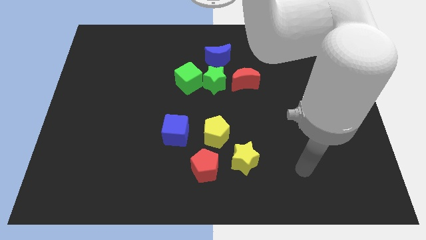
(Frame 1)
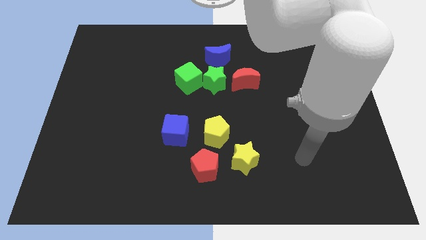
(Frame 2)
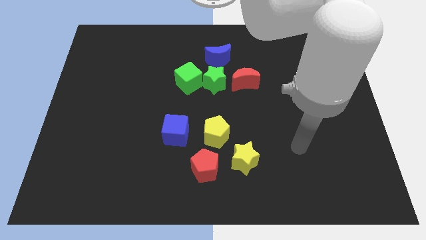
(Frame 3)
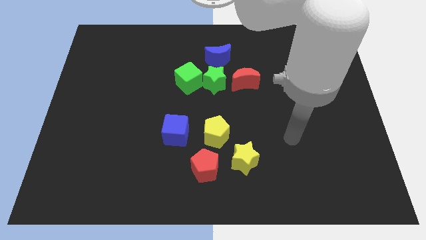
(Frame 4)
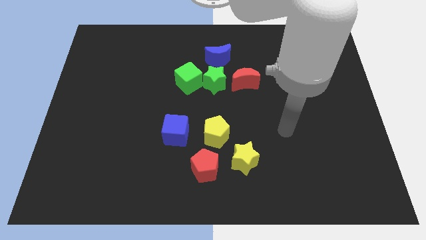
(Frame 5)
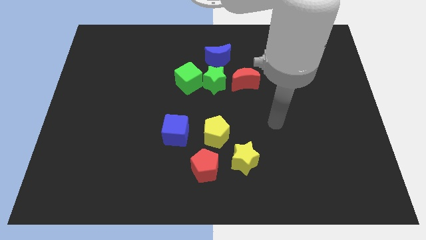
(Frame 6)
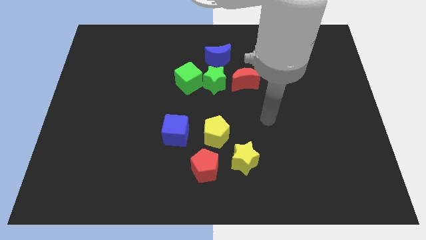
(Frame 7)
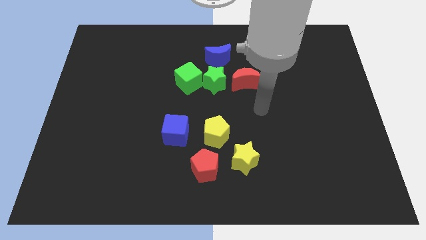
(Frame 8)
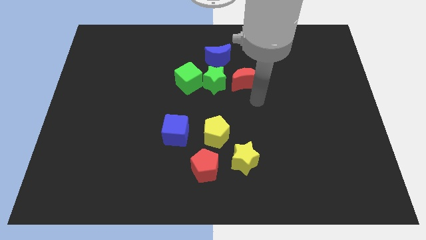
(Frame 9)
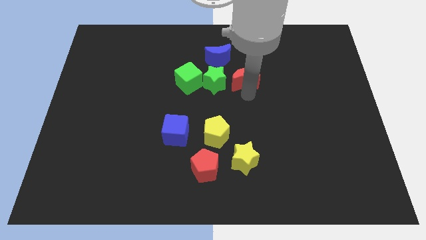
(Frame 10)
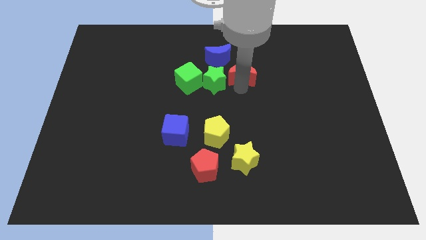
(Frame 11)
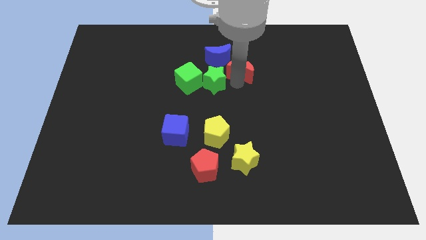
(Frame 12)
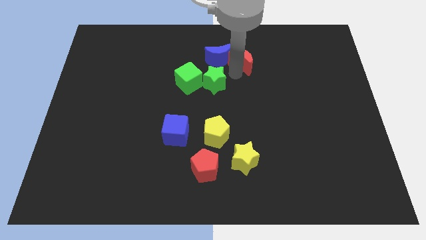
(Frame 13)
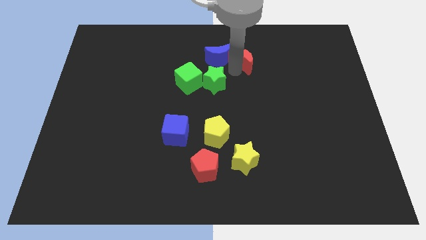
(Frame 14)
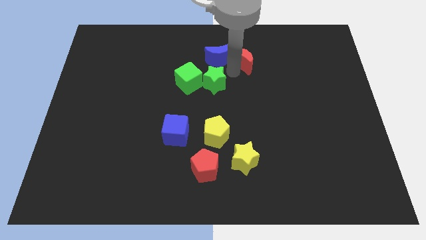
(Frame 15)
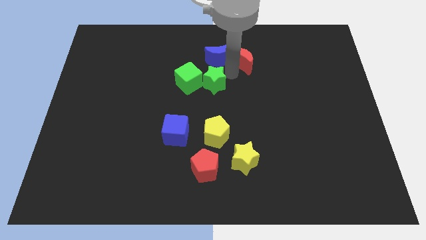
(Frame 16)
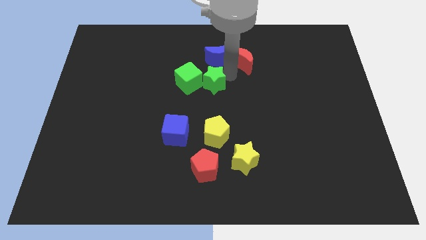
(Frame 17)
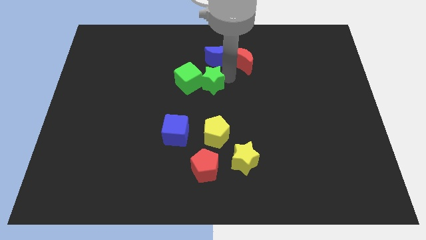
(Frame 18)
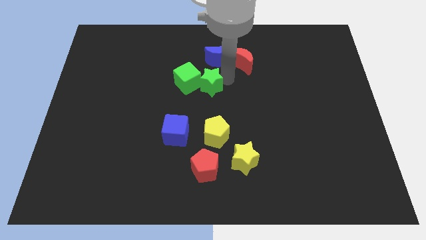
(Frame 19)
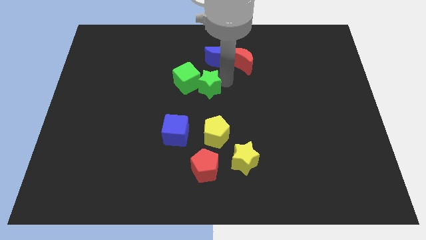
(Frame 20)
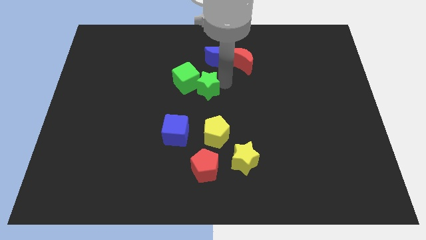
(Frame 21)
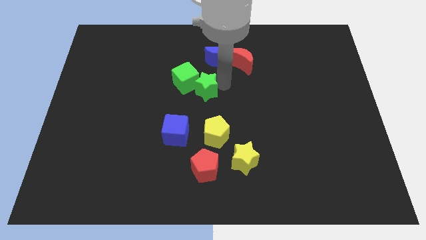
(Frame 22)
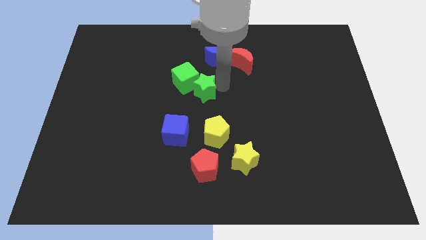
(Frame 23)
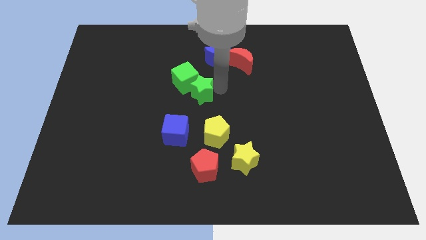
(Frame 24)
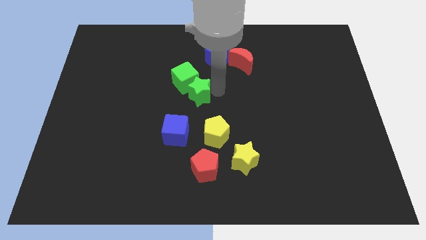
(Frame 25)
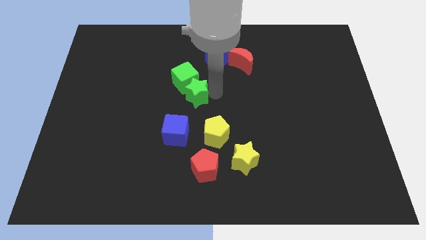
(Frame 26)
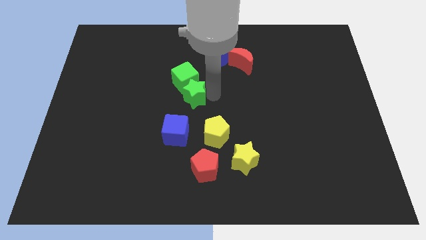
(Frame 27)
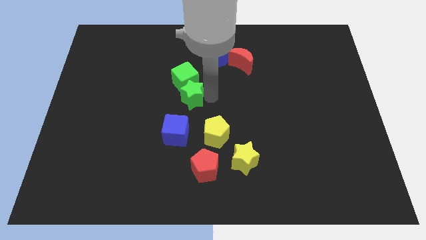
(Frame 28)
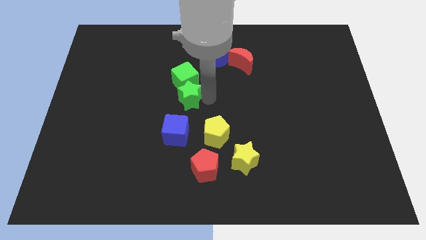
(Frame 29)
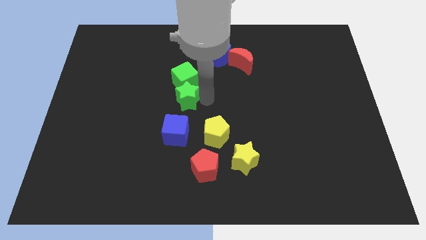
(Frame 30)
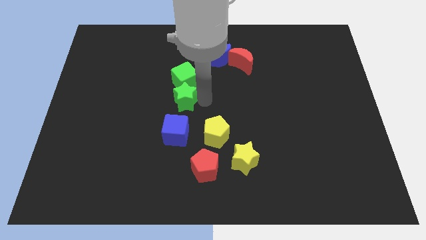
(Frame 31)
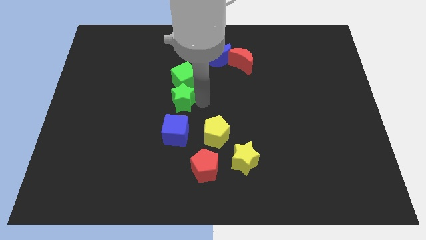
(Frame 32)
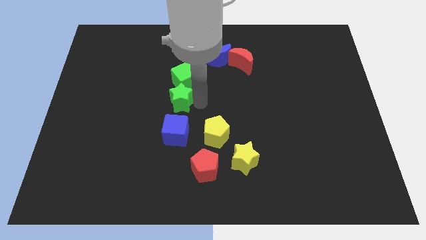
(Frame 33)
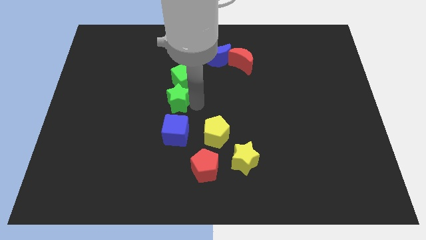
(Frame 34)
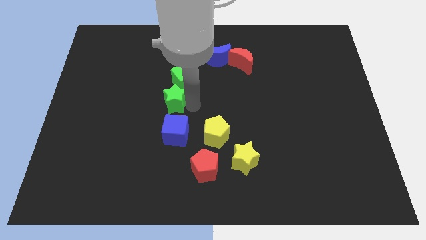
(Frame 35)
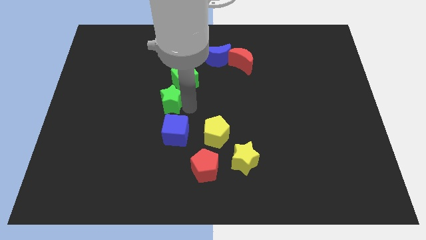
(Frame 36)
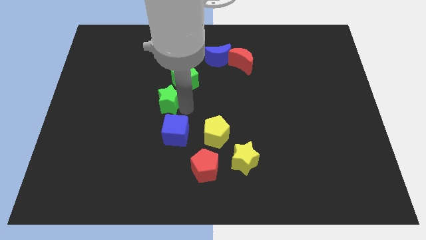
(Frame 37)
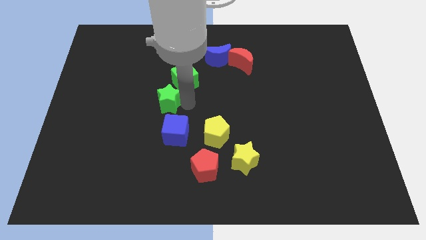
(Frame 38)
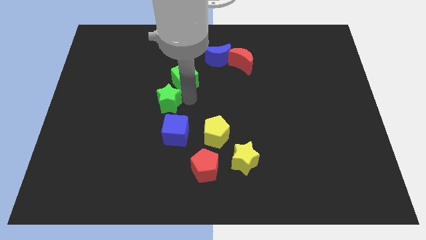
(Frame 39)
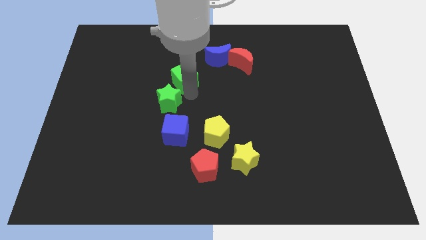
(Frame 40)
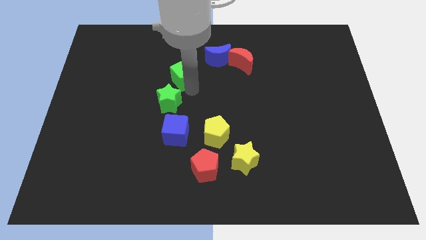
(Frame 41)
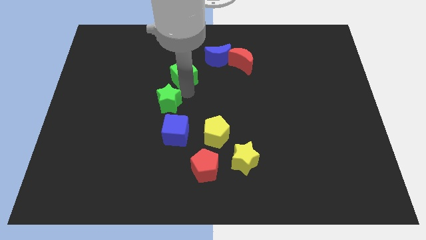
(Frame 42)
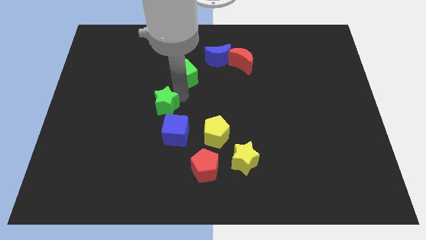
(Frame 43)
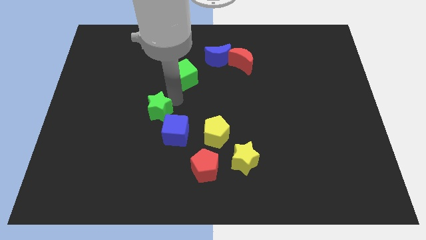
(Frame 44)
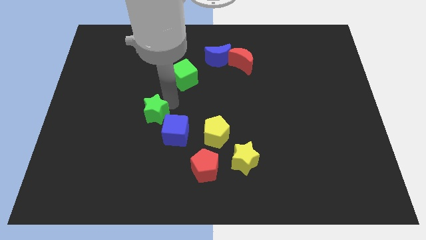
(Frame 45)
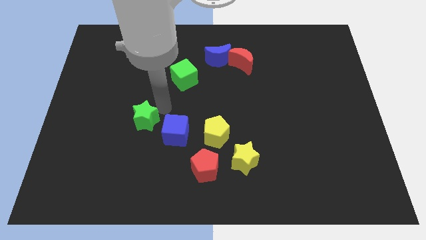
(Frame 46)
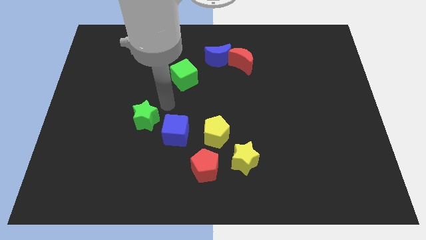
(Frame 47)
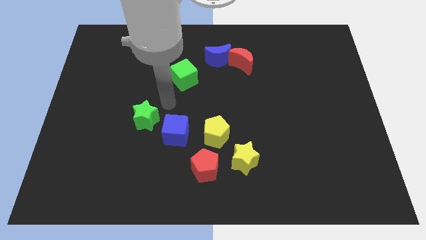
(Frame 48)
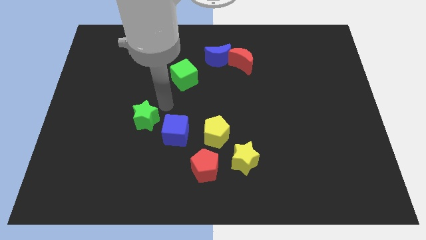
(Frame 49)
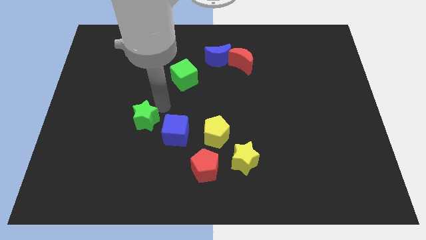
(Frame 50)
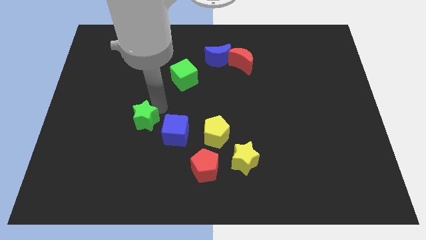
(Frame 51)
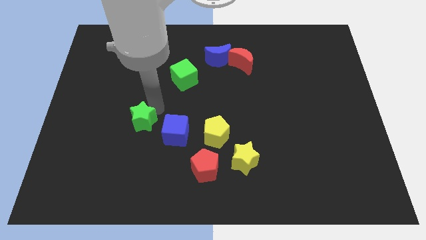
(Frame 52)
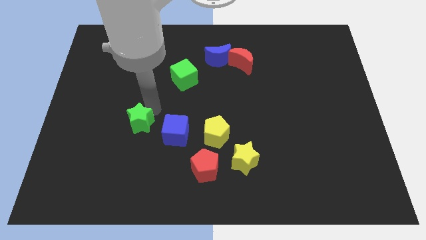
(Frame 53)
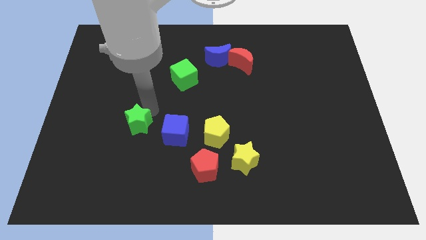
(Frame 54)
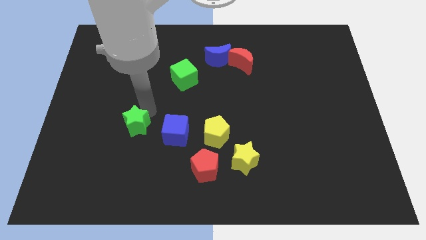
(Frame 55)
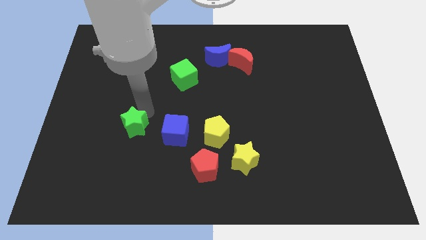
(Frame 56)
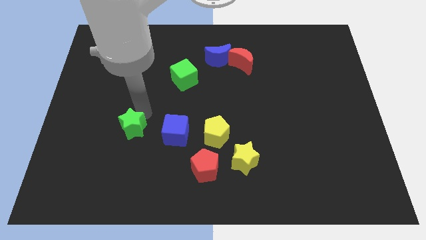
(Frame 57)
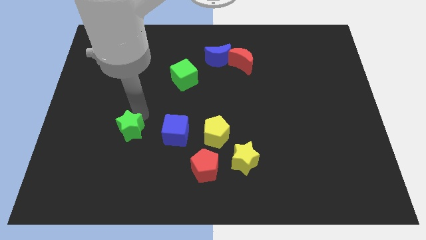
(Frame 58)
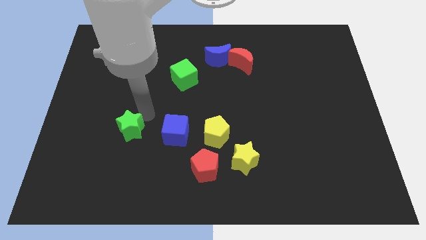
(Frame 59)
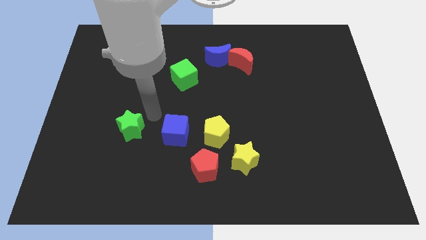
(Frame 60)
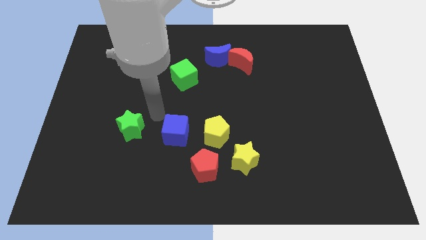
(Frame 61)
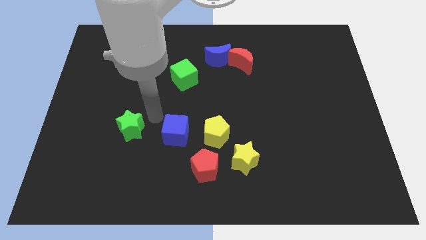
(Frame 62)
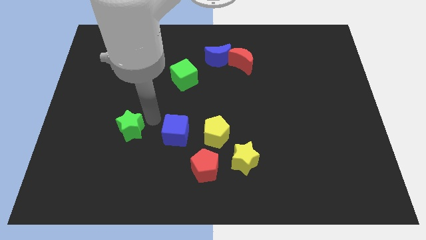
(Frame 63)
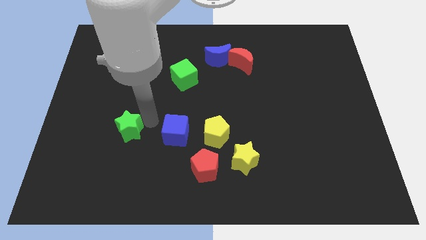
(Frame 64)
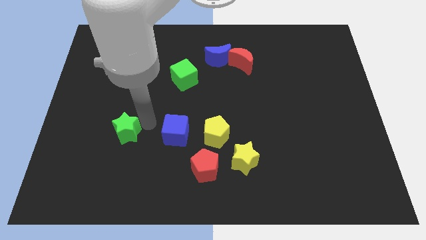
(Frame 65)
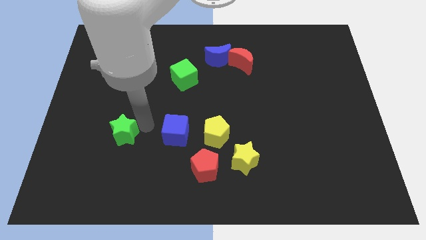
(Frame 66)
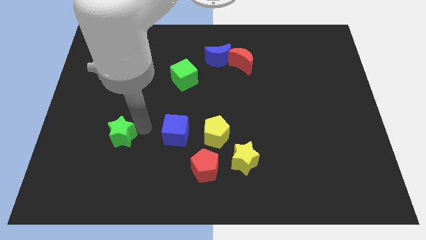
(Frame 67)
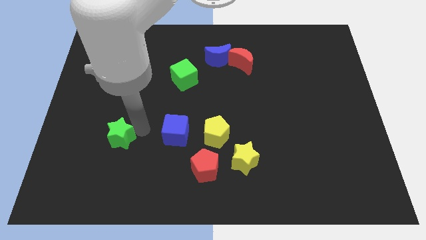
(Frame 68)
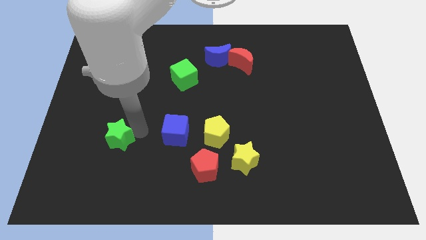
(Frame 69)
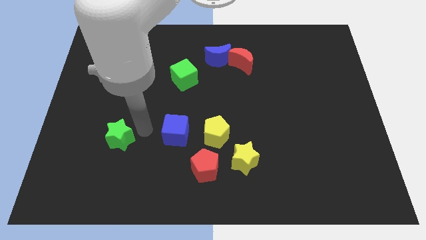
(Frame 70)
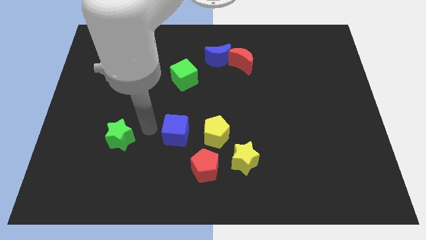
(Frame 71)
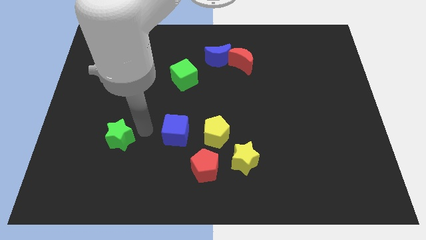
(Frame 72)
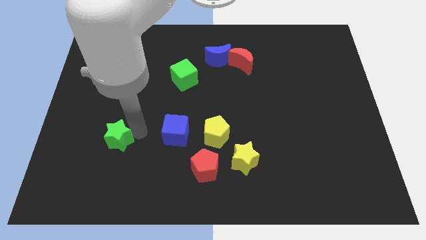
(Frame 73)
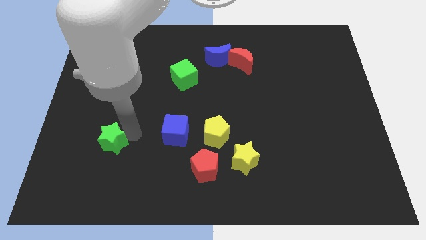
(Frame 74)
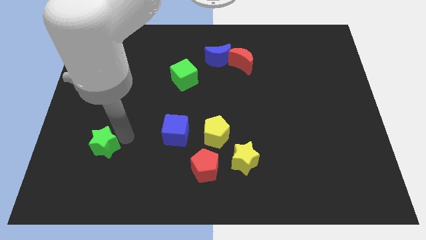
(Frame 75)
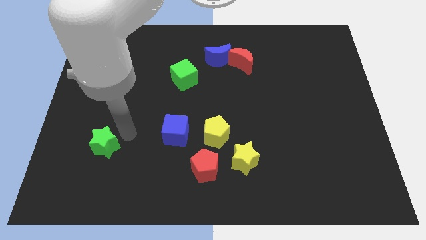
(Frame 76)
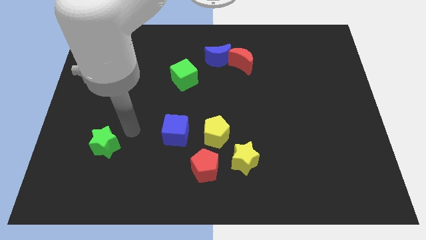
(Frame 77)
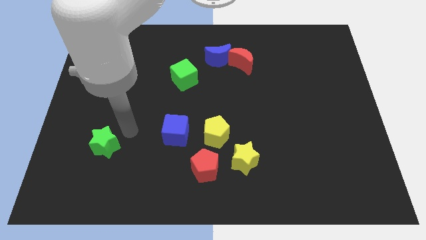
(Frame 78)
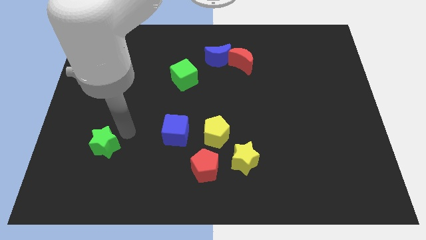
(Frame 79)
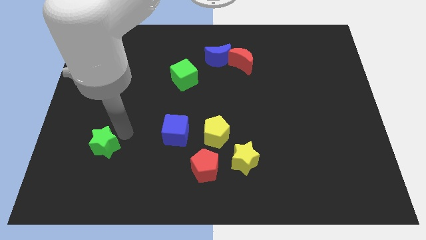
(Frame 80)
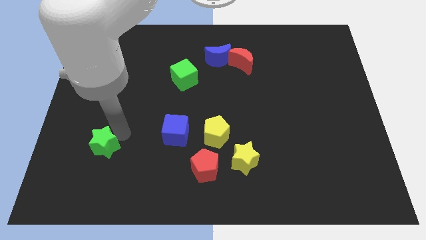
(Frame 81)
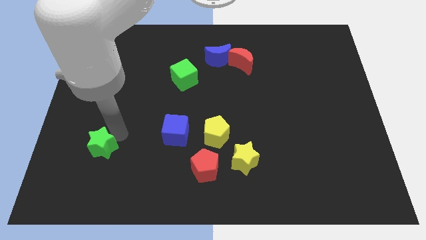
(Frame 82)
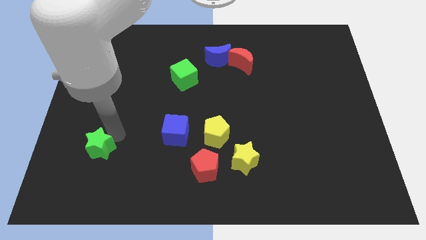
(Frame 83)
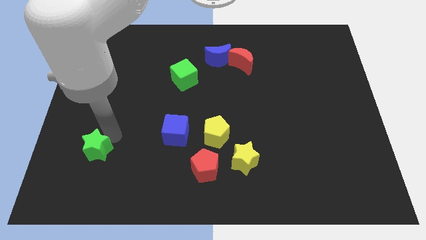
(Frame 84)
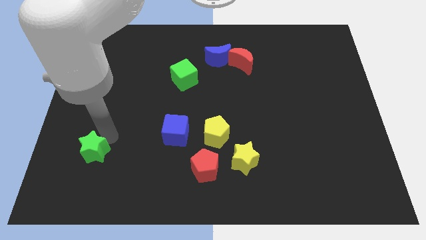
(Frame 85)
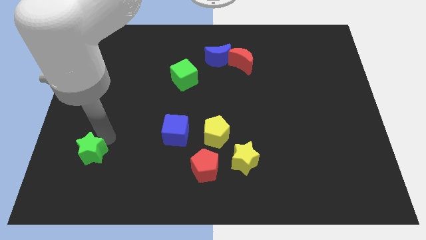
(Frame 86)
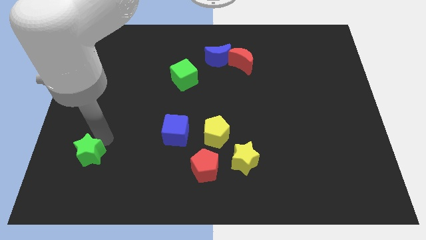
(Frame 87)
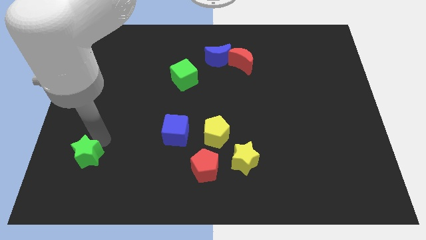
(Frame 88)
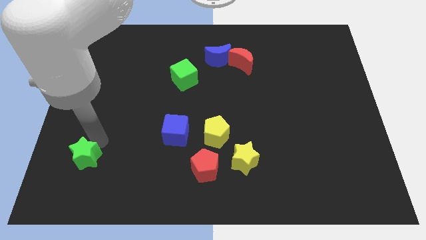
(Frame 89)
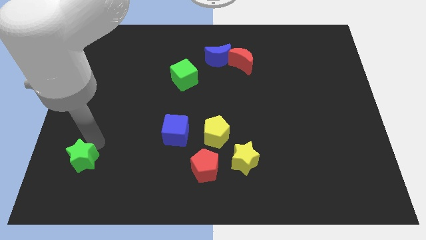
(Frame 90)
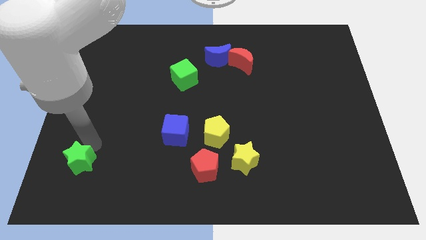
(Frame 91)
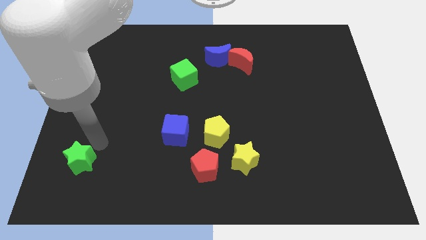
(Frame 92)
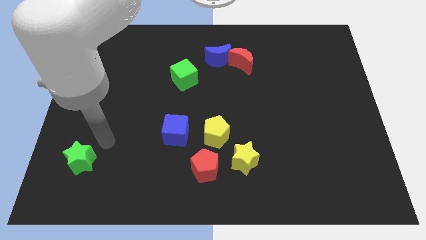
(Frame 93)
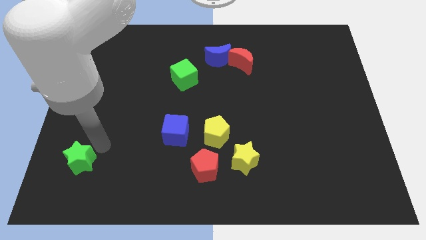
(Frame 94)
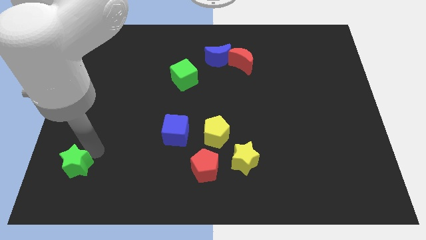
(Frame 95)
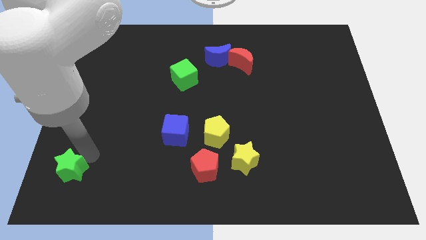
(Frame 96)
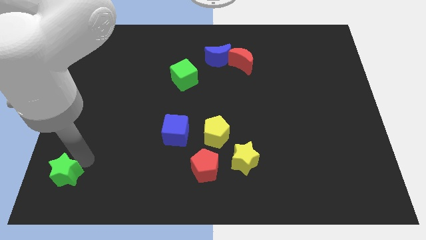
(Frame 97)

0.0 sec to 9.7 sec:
move the green star to the bottom left corner
